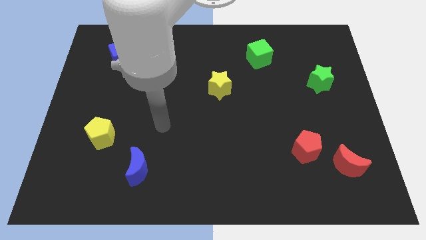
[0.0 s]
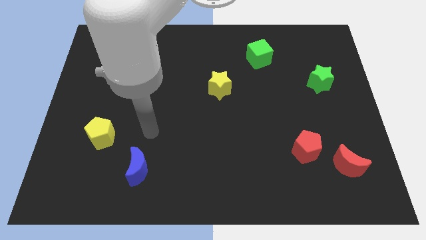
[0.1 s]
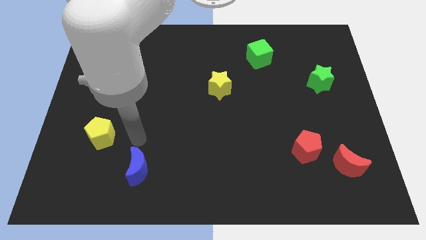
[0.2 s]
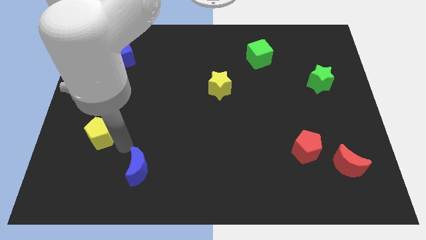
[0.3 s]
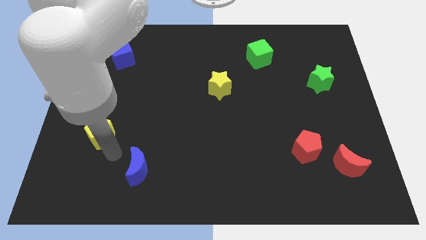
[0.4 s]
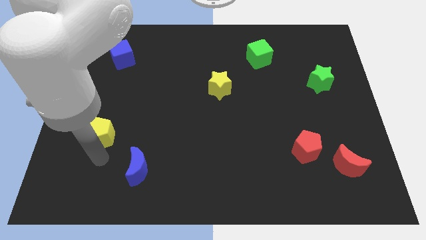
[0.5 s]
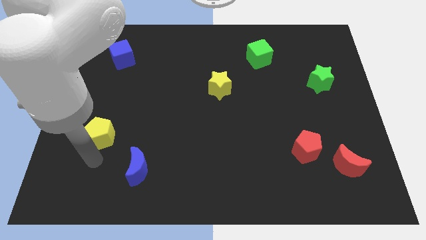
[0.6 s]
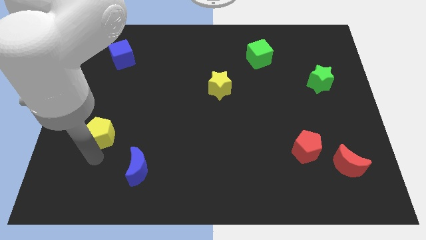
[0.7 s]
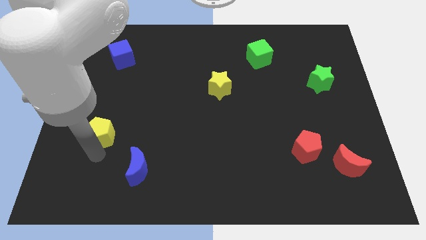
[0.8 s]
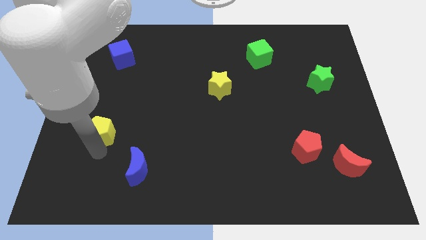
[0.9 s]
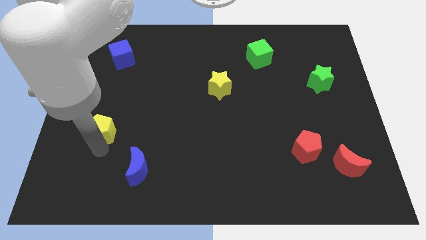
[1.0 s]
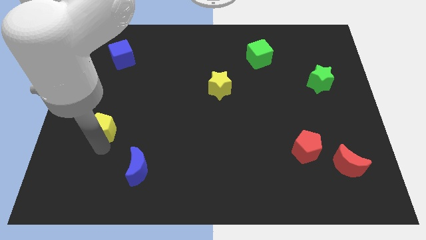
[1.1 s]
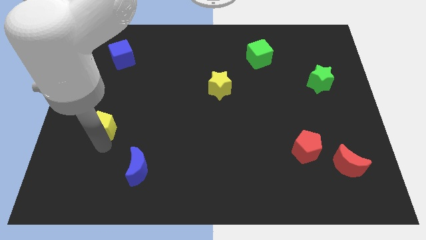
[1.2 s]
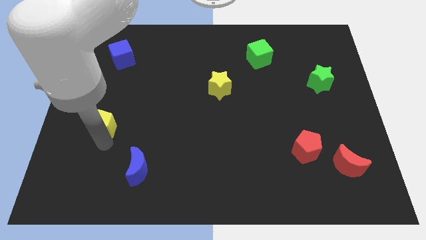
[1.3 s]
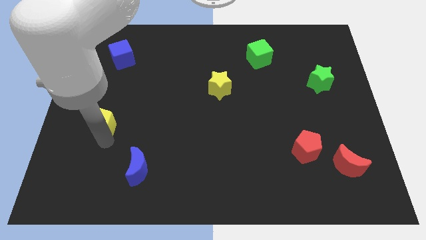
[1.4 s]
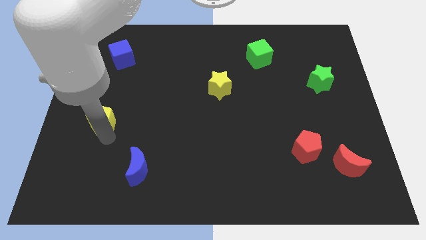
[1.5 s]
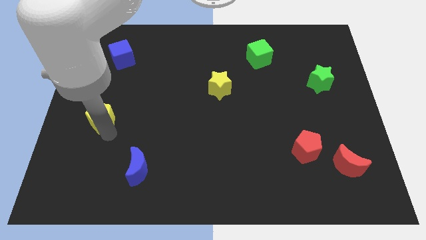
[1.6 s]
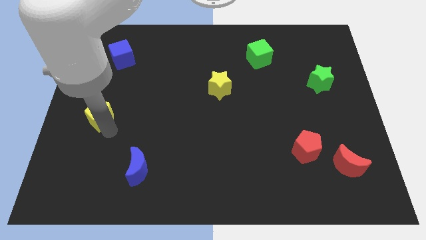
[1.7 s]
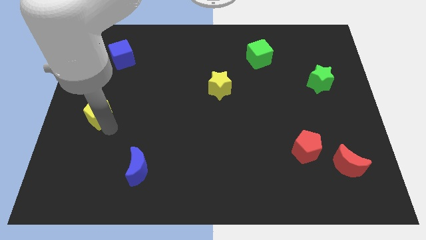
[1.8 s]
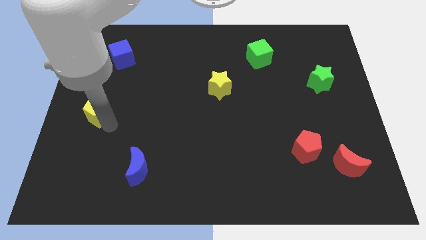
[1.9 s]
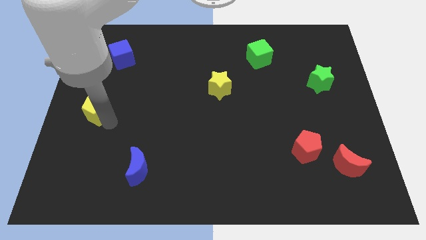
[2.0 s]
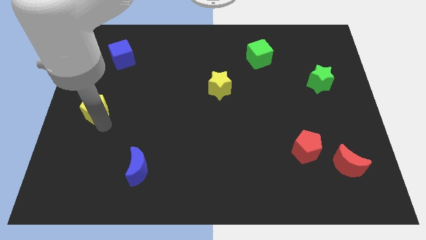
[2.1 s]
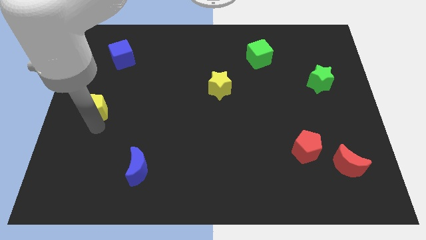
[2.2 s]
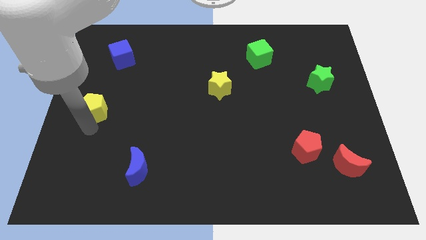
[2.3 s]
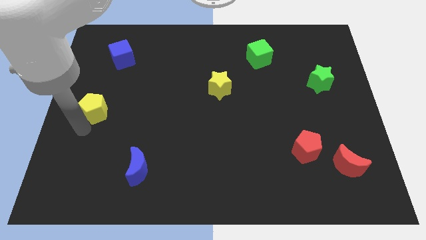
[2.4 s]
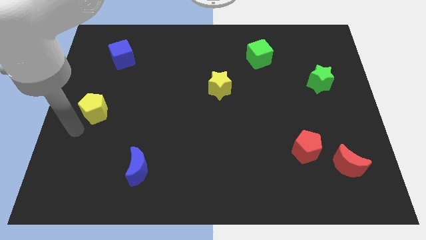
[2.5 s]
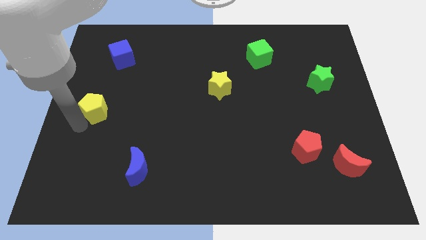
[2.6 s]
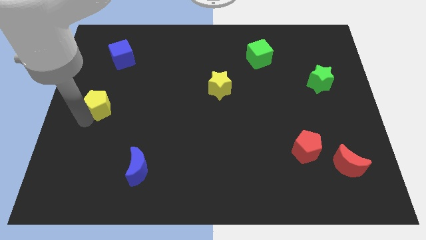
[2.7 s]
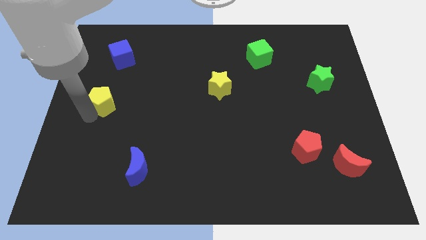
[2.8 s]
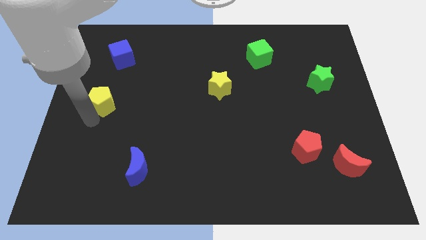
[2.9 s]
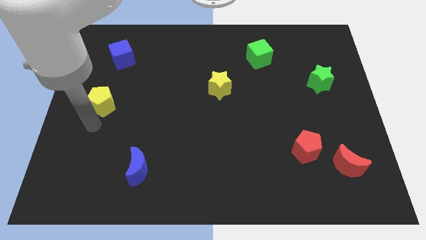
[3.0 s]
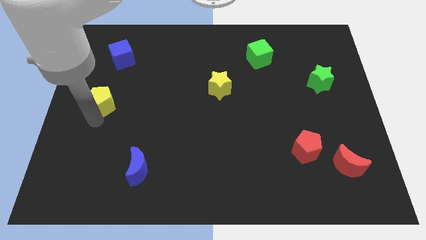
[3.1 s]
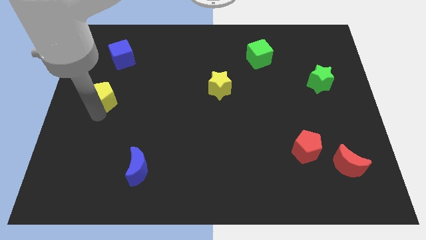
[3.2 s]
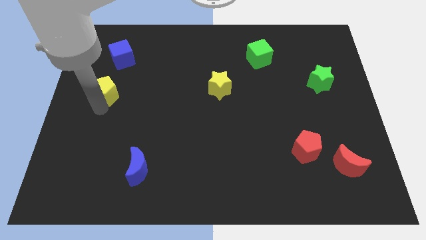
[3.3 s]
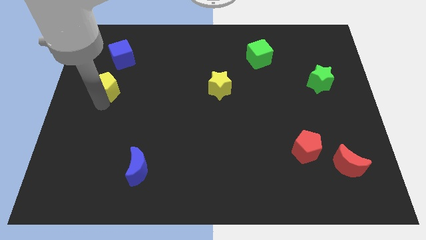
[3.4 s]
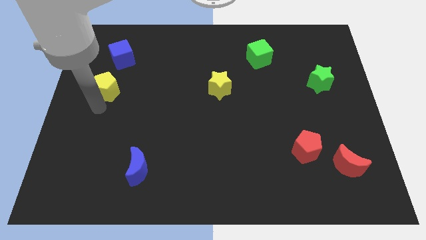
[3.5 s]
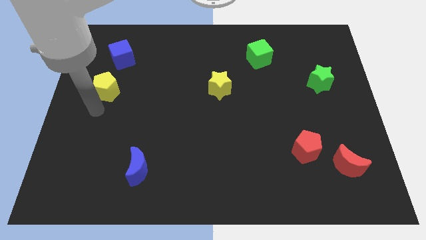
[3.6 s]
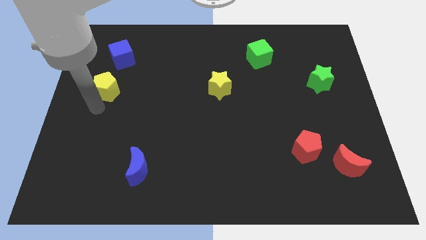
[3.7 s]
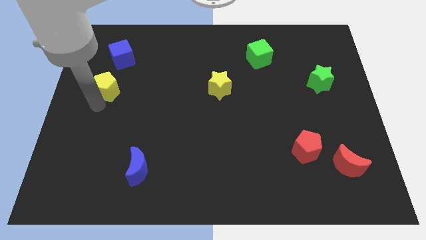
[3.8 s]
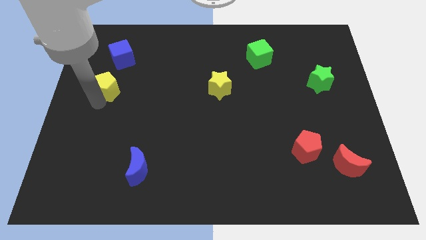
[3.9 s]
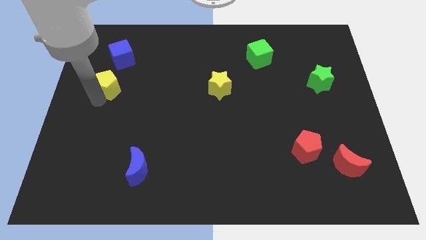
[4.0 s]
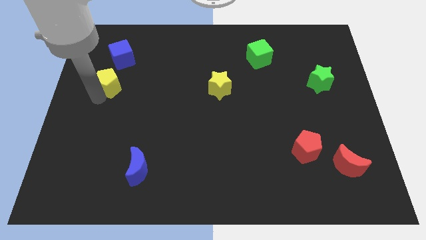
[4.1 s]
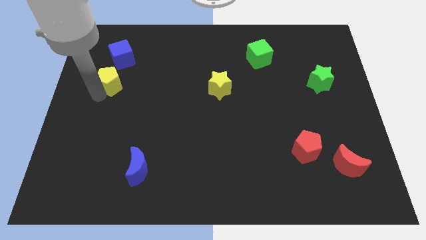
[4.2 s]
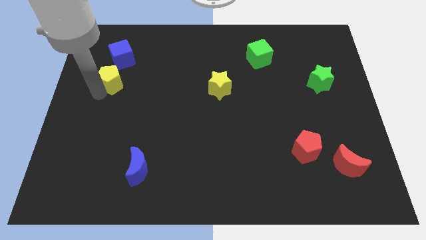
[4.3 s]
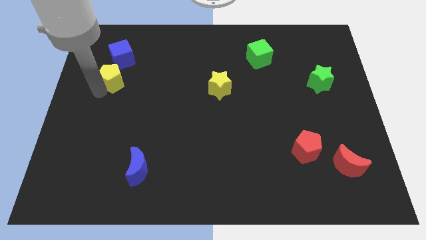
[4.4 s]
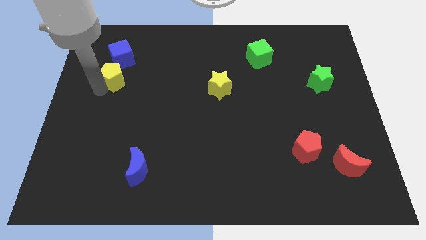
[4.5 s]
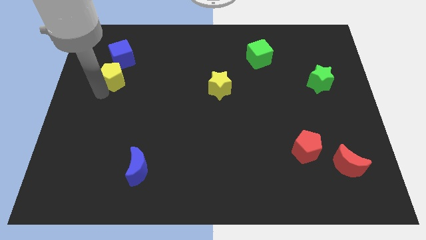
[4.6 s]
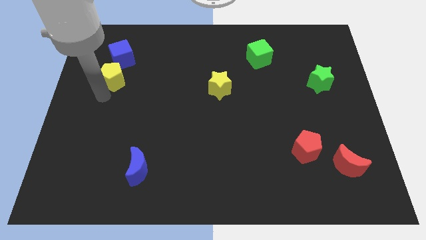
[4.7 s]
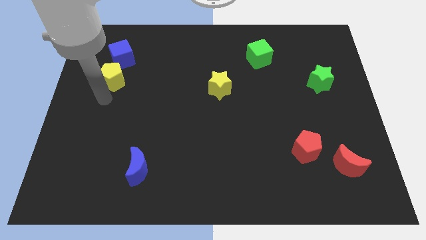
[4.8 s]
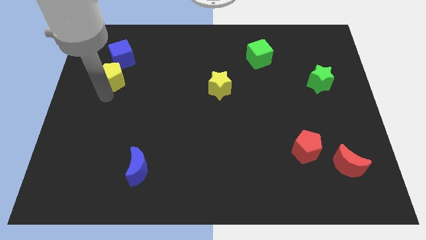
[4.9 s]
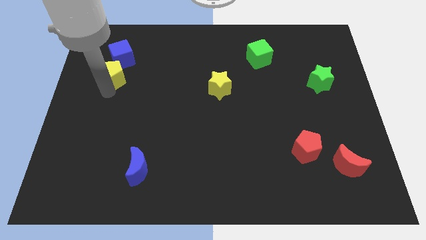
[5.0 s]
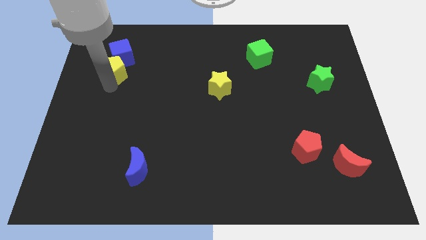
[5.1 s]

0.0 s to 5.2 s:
push the yellow pentagon to the blue cube

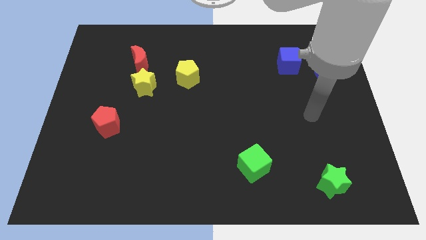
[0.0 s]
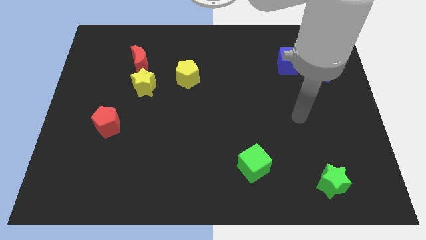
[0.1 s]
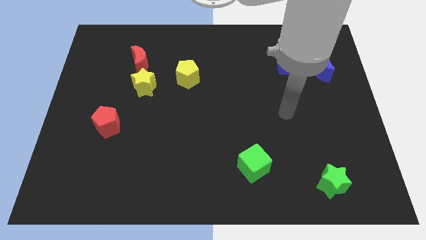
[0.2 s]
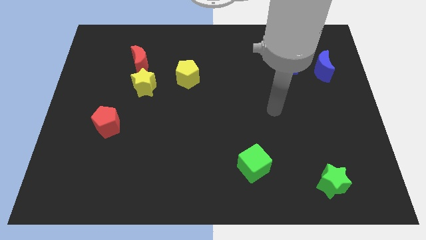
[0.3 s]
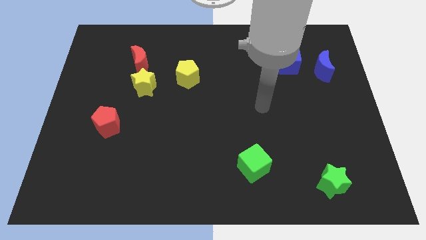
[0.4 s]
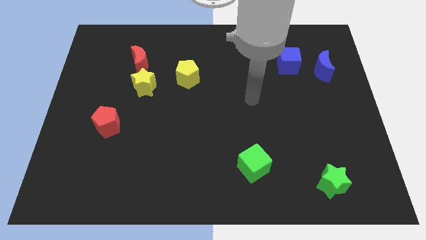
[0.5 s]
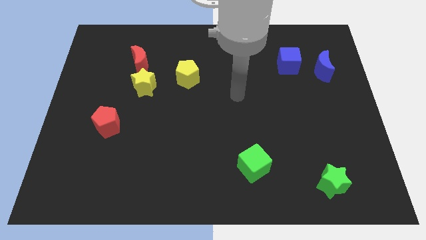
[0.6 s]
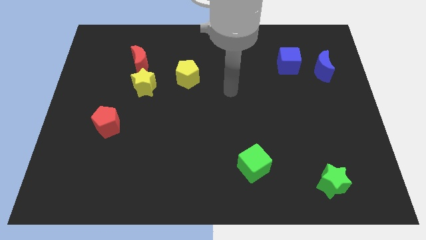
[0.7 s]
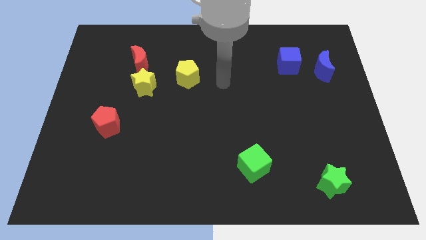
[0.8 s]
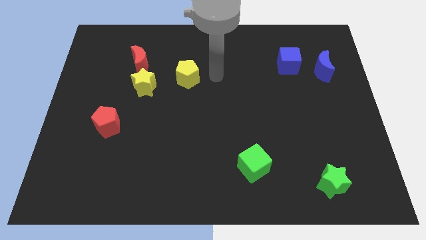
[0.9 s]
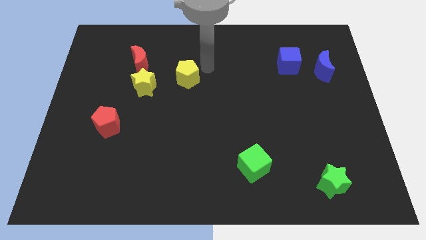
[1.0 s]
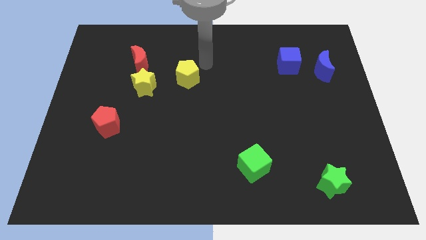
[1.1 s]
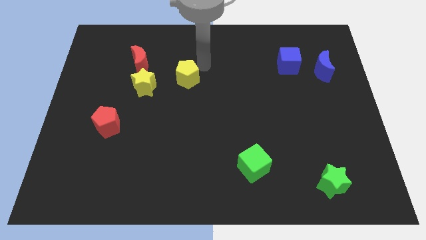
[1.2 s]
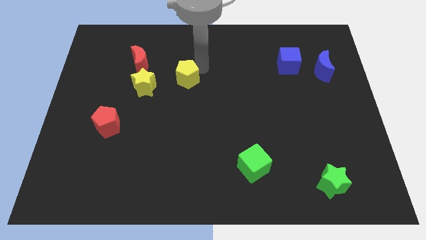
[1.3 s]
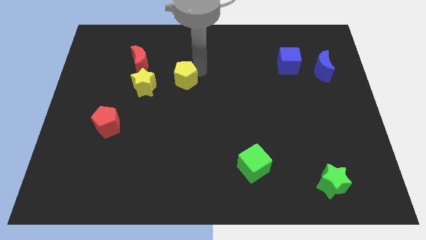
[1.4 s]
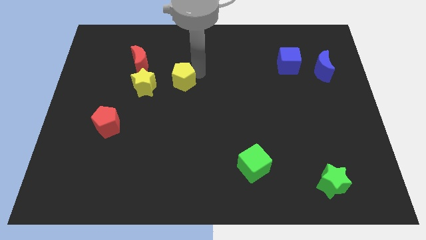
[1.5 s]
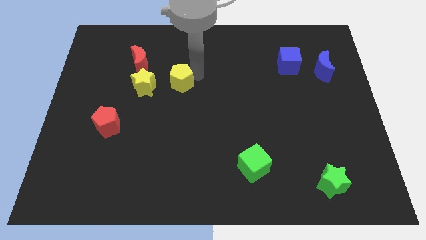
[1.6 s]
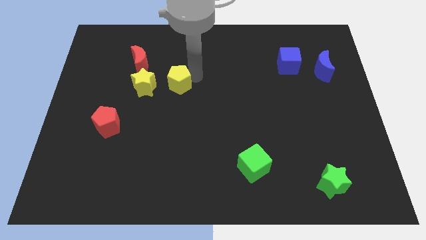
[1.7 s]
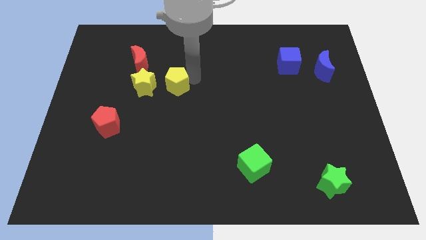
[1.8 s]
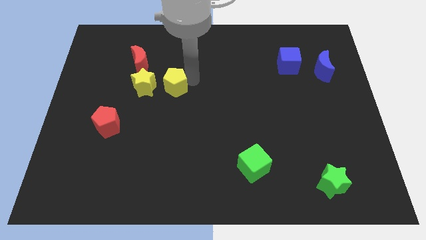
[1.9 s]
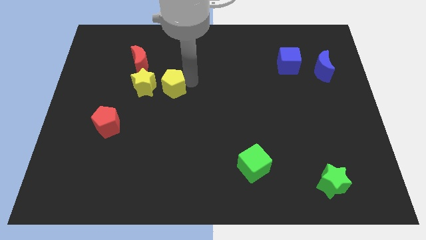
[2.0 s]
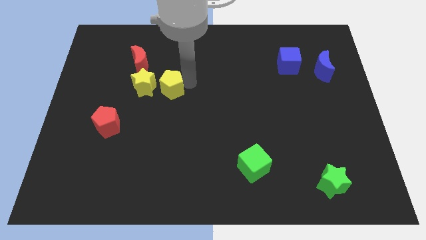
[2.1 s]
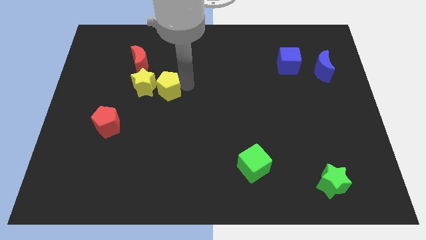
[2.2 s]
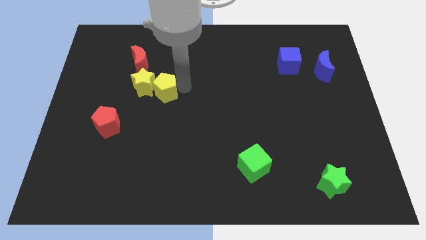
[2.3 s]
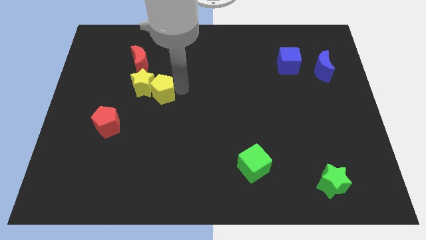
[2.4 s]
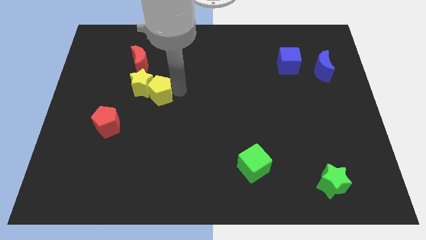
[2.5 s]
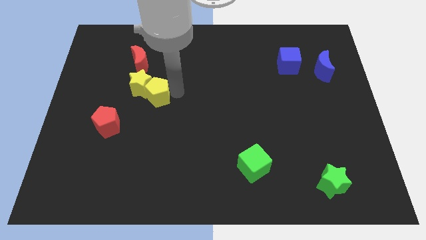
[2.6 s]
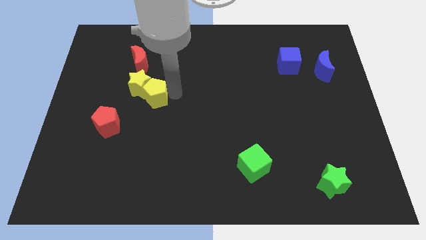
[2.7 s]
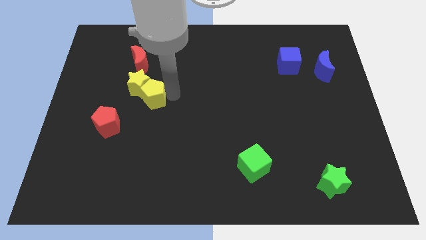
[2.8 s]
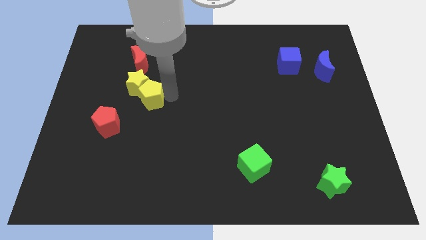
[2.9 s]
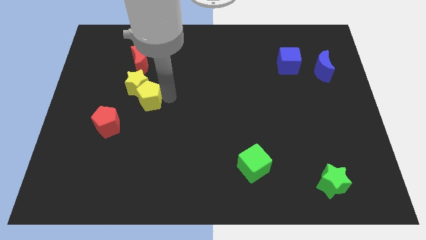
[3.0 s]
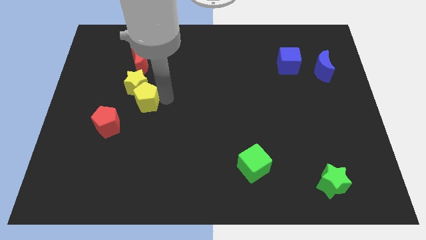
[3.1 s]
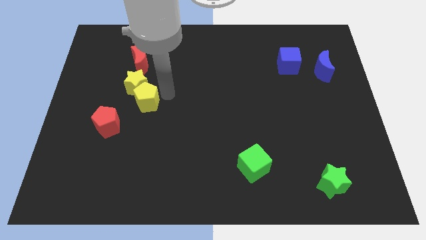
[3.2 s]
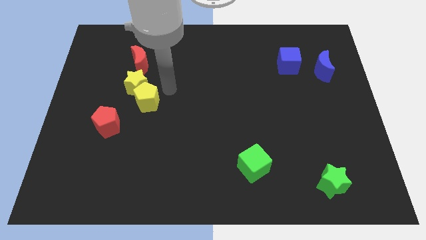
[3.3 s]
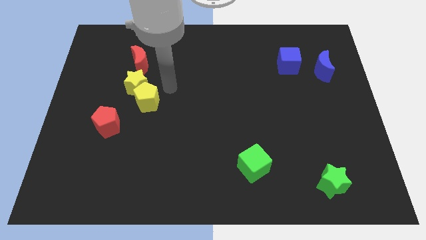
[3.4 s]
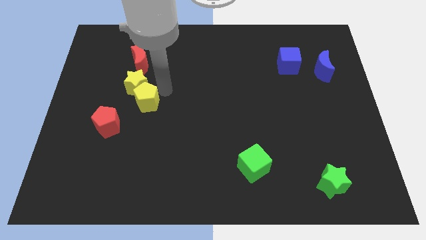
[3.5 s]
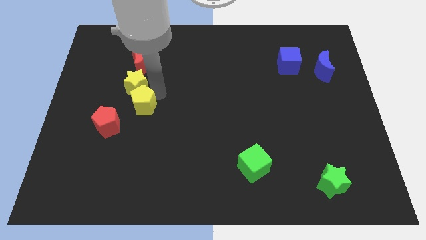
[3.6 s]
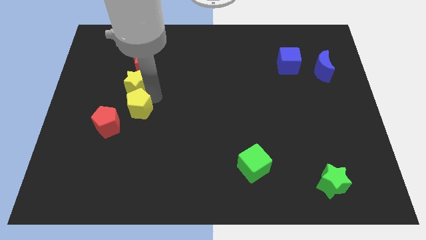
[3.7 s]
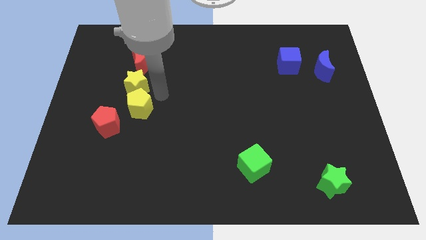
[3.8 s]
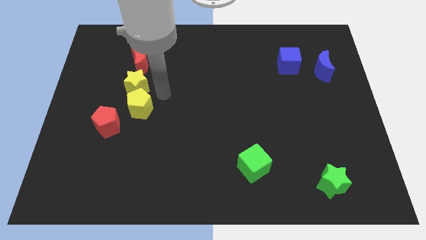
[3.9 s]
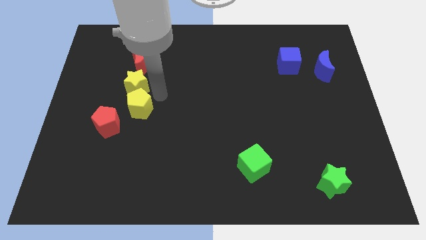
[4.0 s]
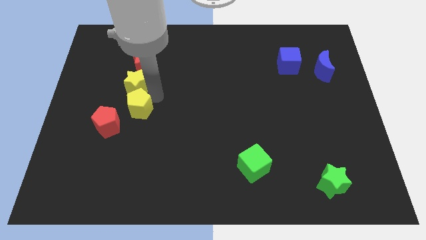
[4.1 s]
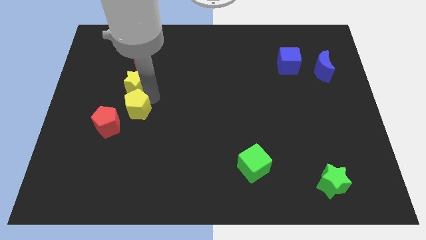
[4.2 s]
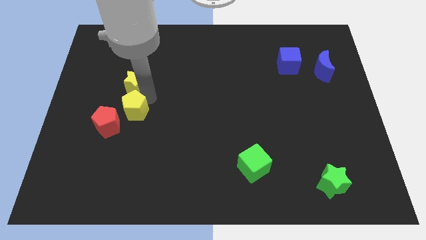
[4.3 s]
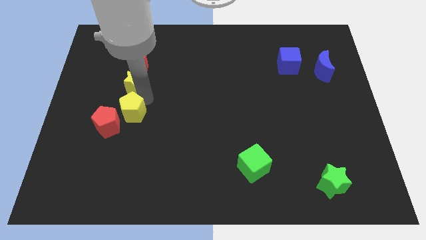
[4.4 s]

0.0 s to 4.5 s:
move the yellow pentagon next to the red pentagon
